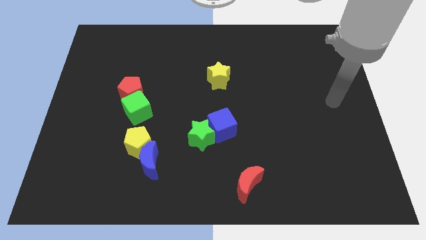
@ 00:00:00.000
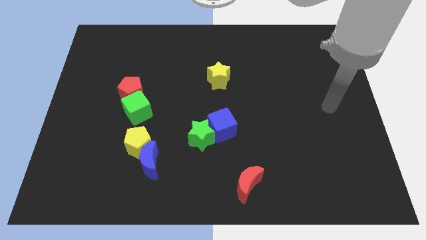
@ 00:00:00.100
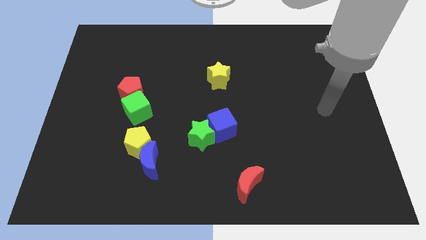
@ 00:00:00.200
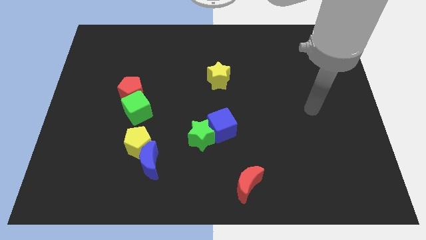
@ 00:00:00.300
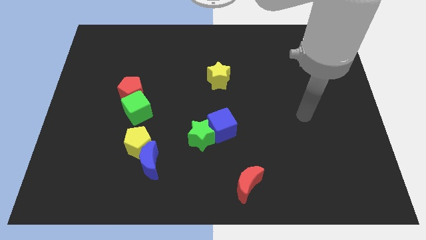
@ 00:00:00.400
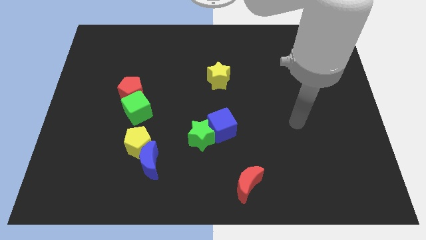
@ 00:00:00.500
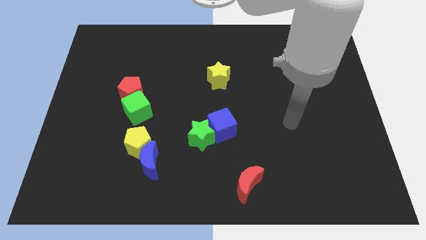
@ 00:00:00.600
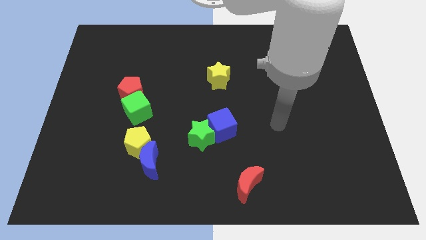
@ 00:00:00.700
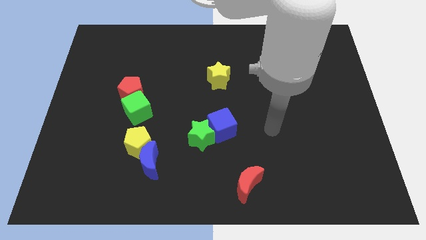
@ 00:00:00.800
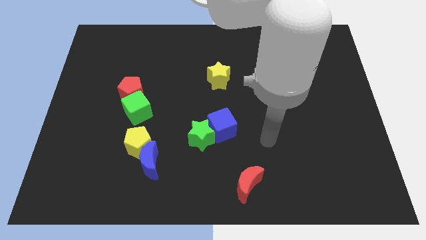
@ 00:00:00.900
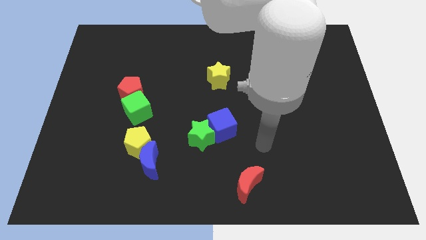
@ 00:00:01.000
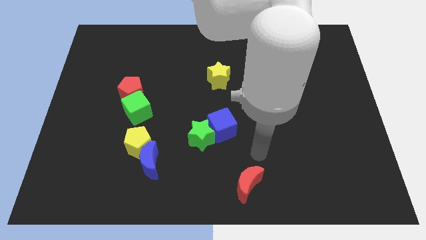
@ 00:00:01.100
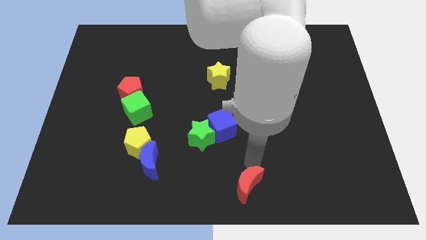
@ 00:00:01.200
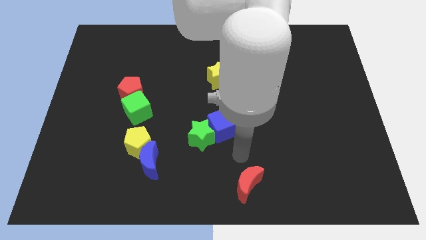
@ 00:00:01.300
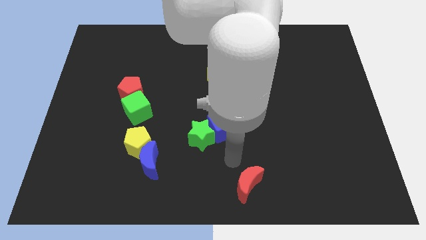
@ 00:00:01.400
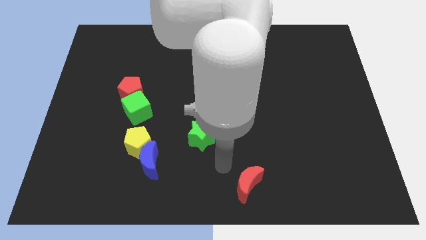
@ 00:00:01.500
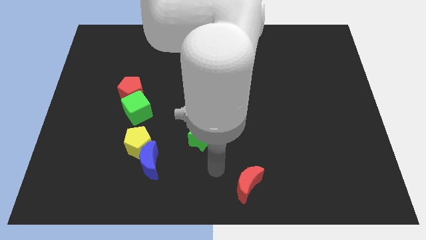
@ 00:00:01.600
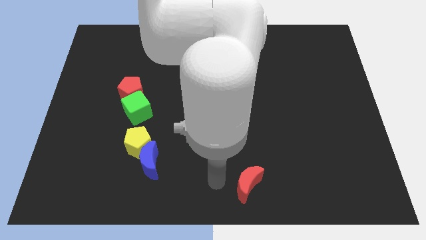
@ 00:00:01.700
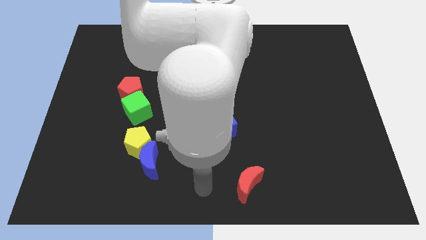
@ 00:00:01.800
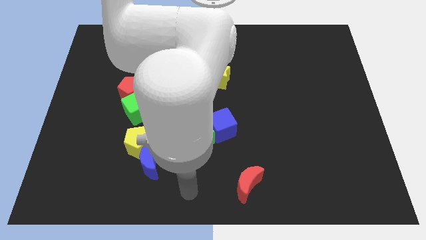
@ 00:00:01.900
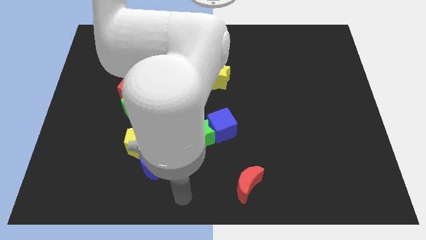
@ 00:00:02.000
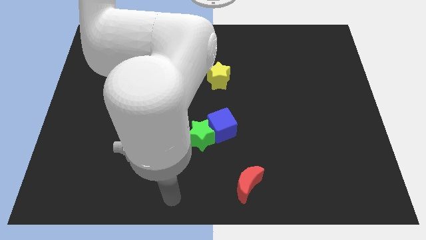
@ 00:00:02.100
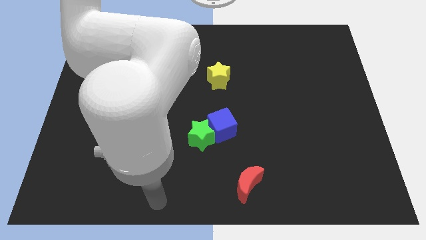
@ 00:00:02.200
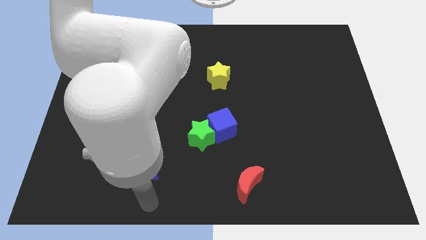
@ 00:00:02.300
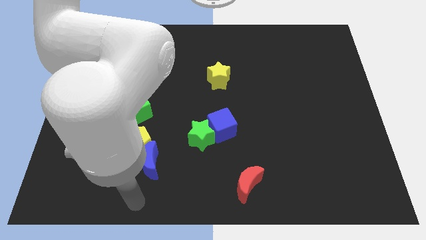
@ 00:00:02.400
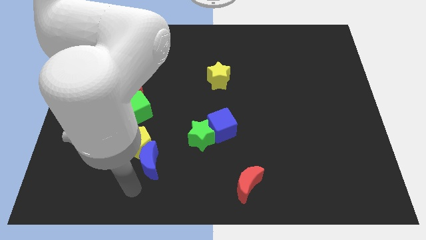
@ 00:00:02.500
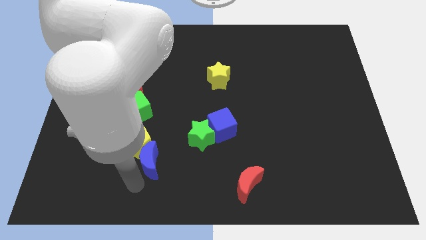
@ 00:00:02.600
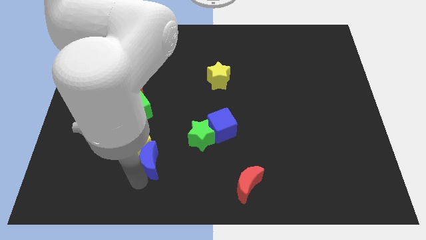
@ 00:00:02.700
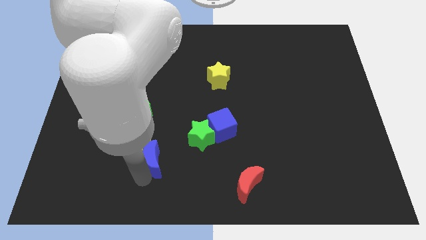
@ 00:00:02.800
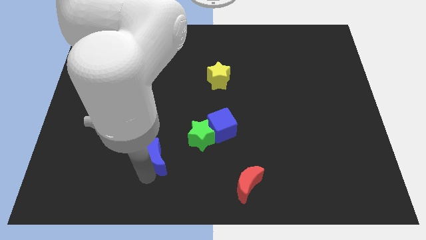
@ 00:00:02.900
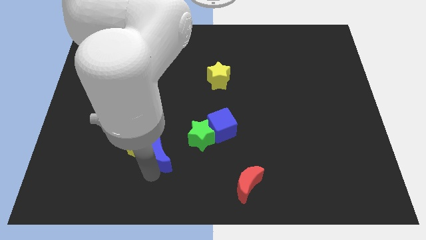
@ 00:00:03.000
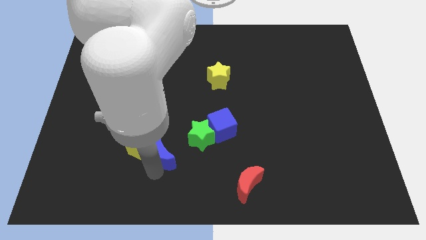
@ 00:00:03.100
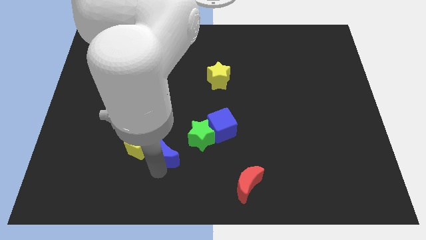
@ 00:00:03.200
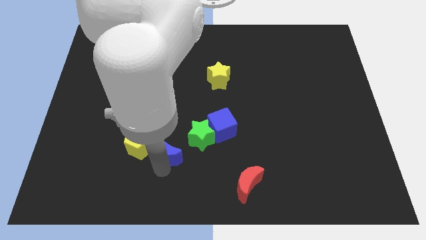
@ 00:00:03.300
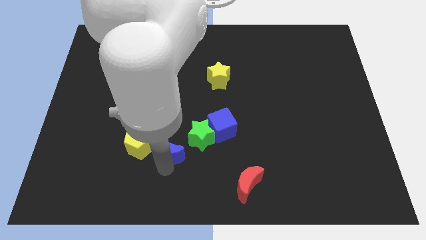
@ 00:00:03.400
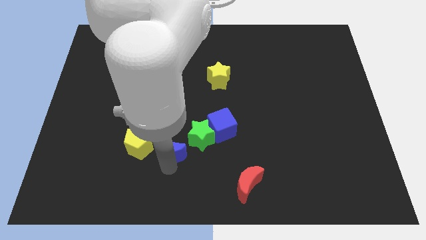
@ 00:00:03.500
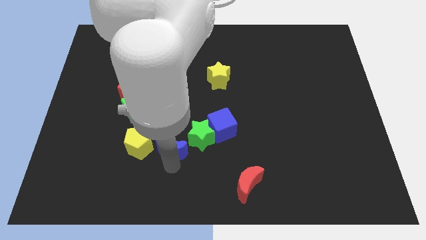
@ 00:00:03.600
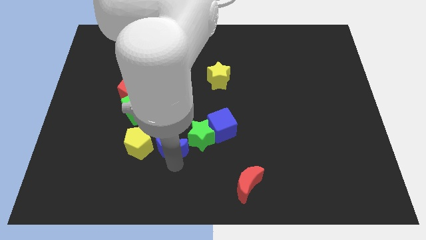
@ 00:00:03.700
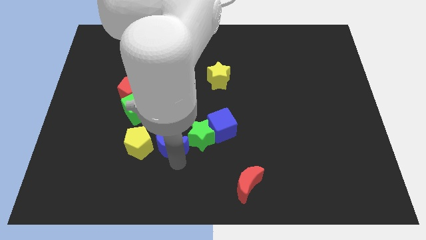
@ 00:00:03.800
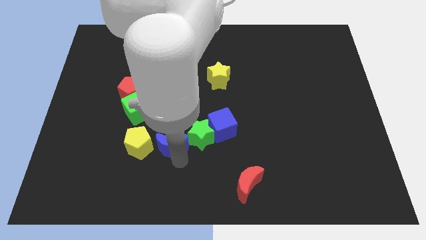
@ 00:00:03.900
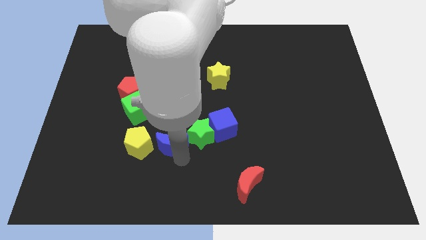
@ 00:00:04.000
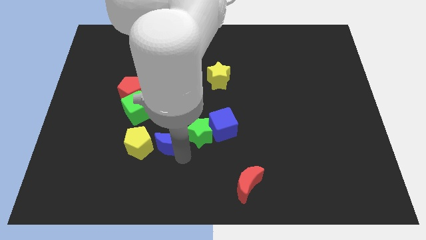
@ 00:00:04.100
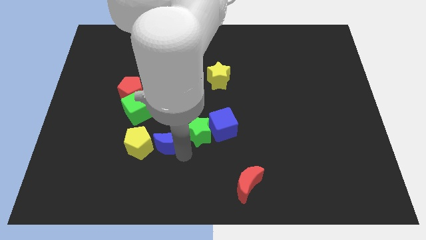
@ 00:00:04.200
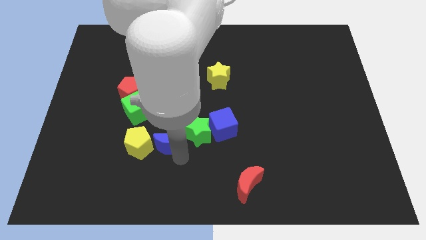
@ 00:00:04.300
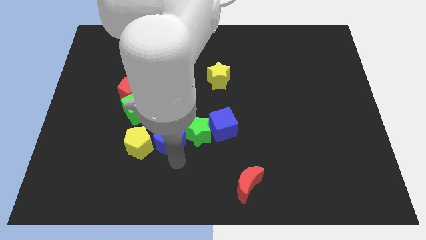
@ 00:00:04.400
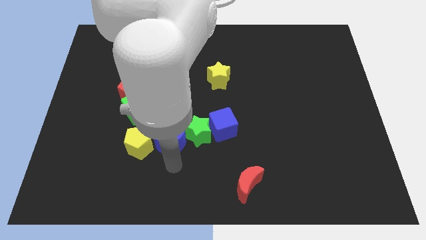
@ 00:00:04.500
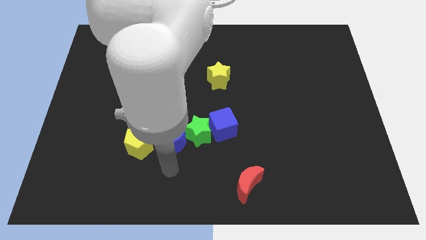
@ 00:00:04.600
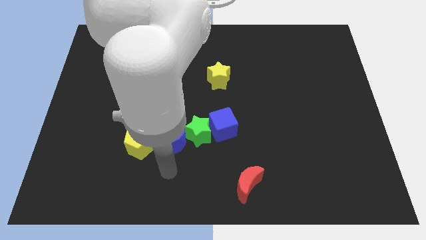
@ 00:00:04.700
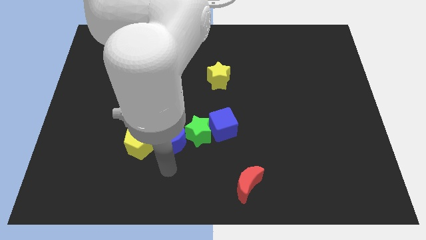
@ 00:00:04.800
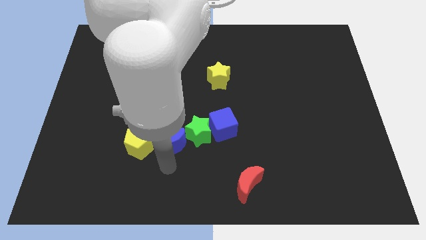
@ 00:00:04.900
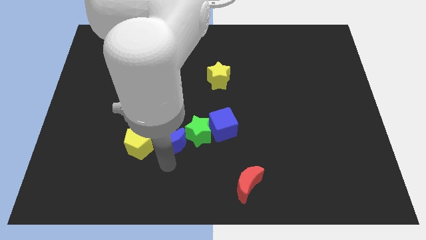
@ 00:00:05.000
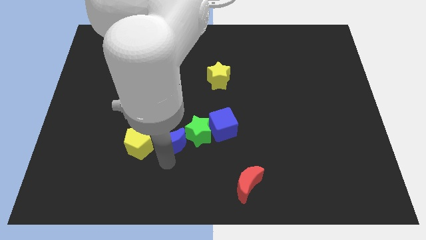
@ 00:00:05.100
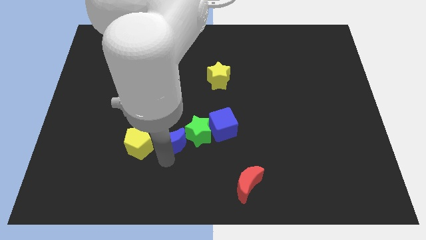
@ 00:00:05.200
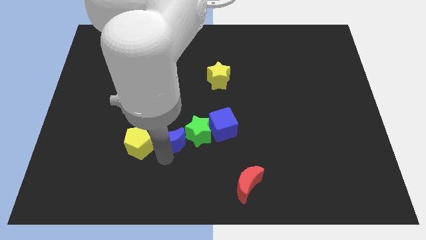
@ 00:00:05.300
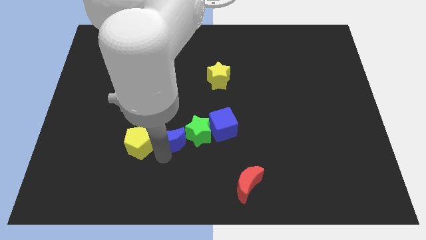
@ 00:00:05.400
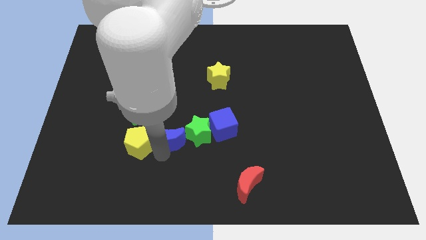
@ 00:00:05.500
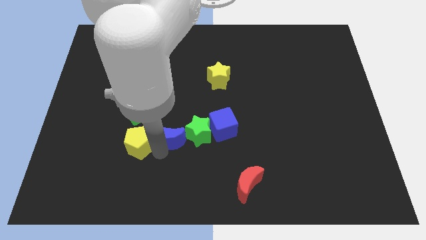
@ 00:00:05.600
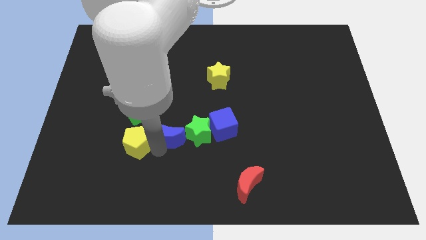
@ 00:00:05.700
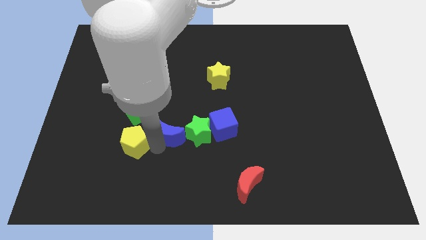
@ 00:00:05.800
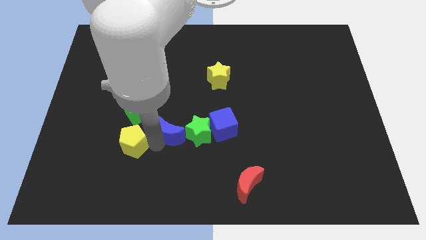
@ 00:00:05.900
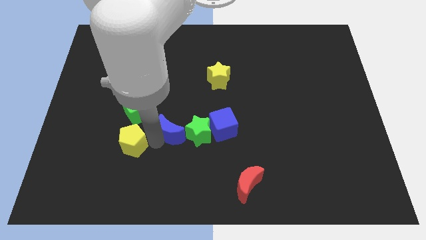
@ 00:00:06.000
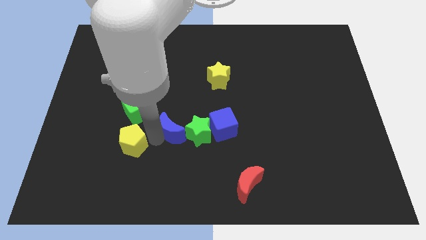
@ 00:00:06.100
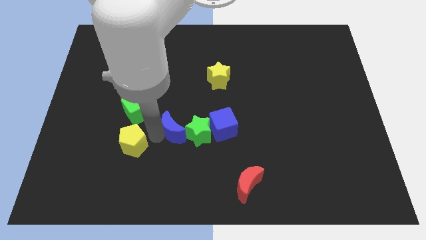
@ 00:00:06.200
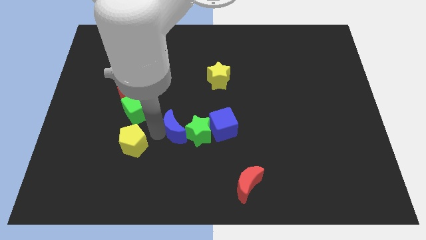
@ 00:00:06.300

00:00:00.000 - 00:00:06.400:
push the blue moon to the center of the board
